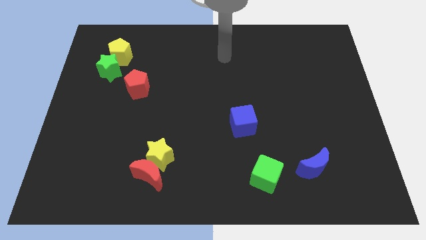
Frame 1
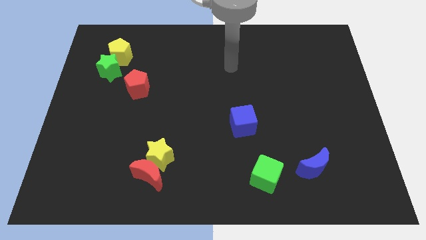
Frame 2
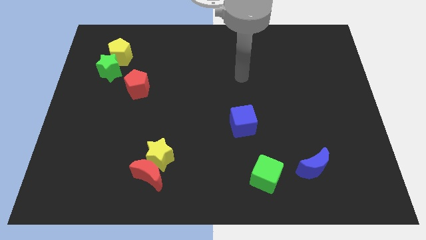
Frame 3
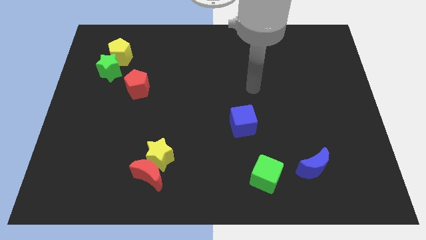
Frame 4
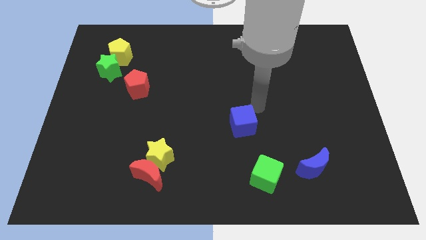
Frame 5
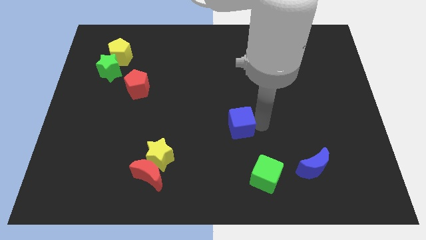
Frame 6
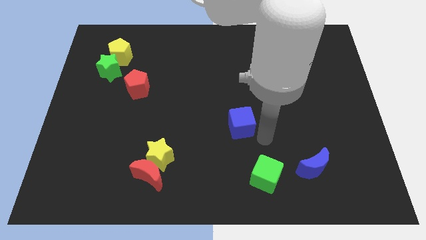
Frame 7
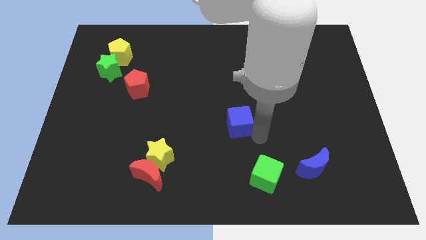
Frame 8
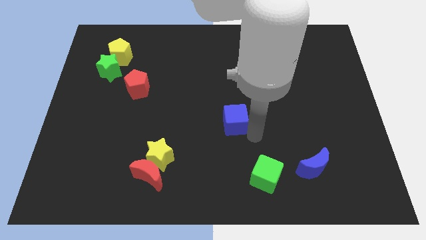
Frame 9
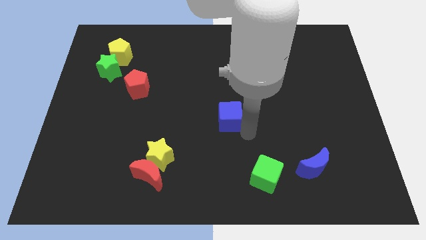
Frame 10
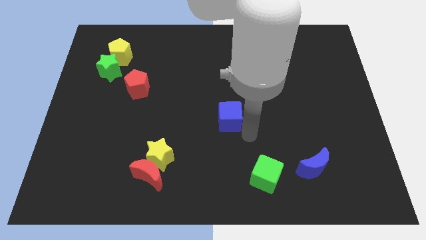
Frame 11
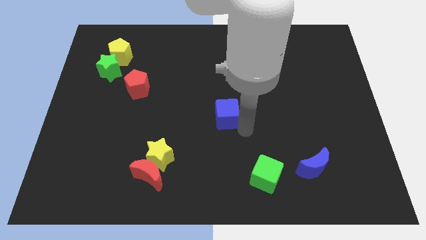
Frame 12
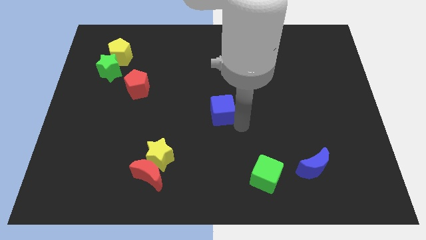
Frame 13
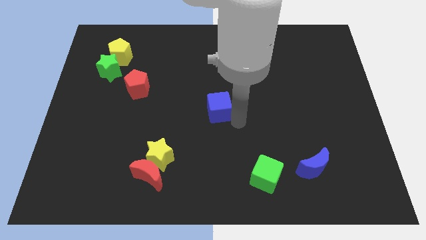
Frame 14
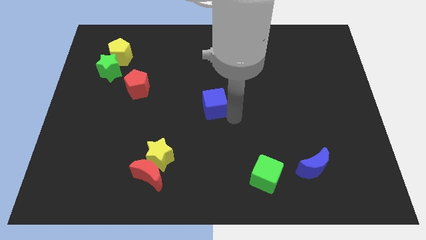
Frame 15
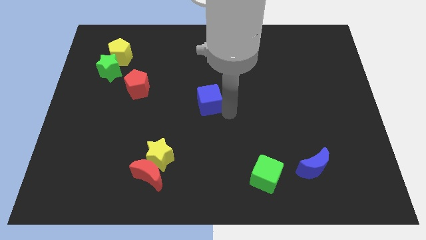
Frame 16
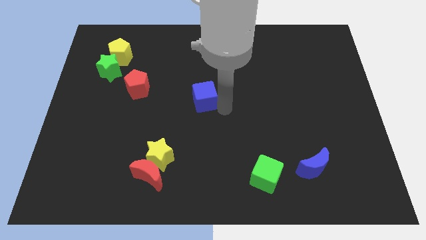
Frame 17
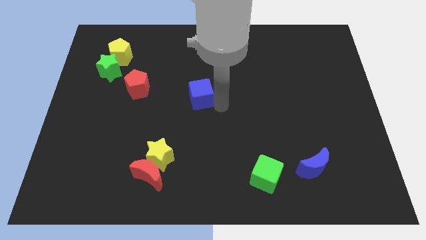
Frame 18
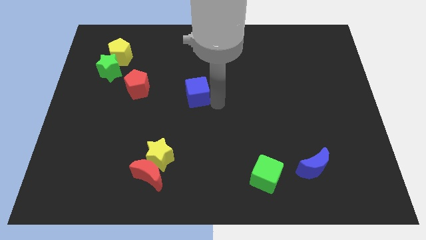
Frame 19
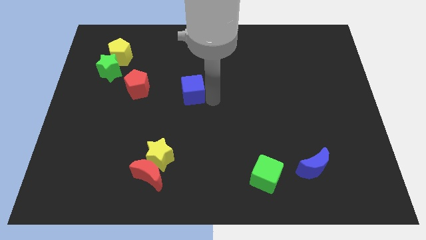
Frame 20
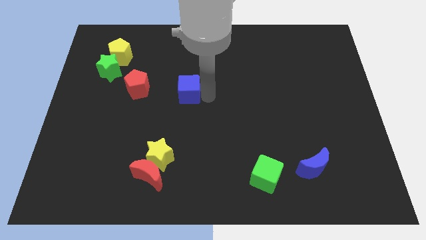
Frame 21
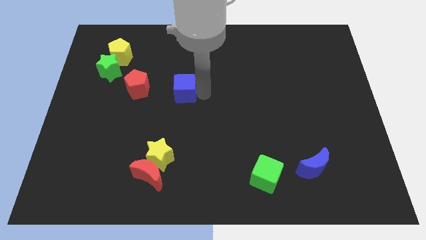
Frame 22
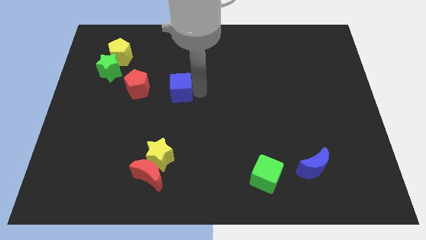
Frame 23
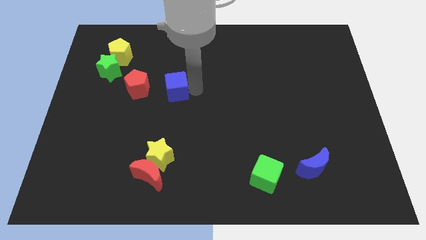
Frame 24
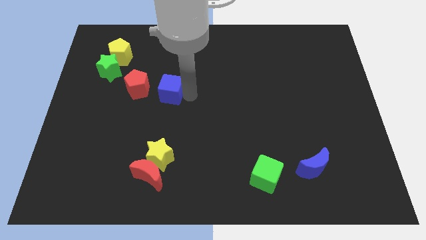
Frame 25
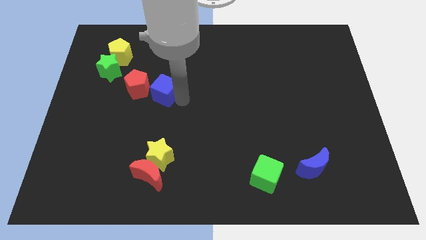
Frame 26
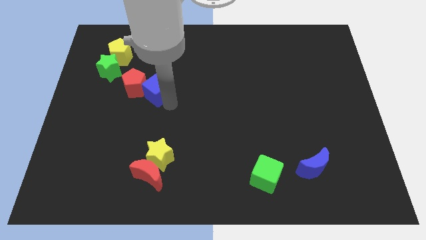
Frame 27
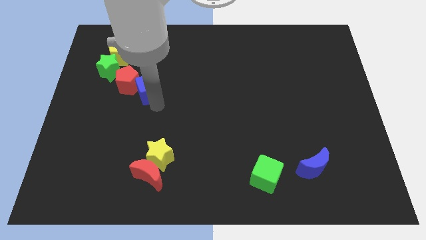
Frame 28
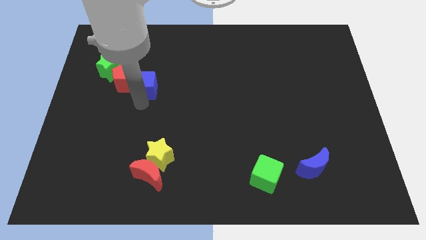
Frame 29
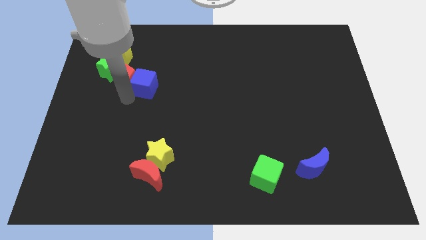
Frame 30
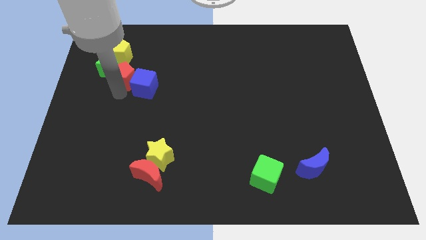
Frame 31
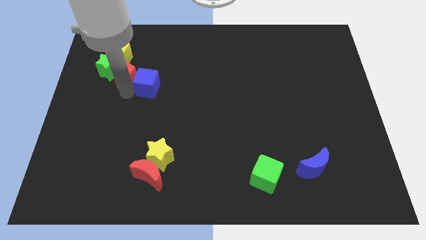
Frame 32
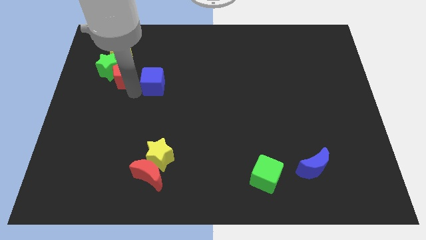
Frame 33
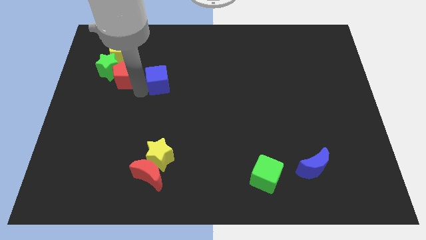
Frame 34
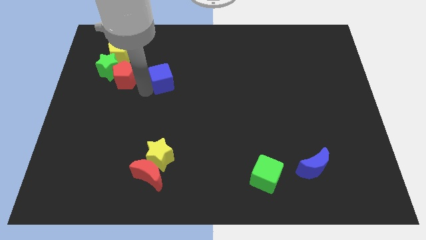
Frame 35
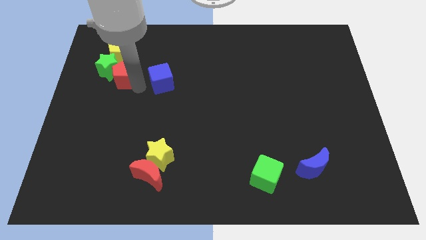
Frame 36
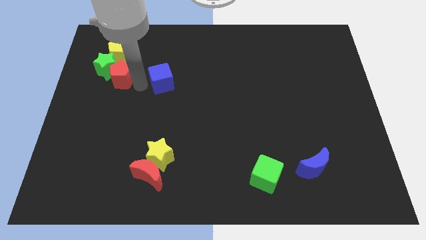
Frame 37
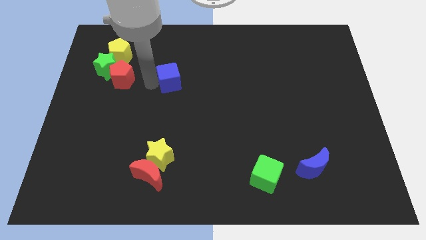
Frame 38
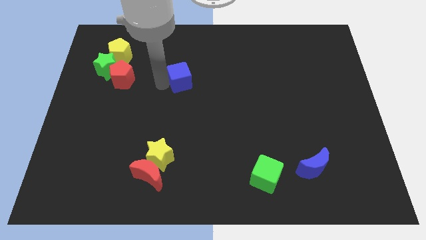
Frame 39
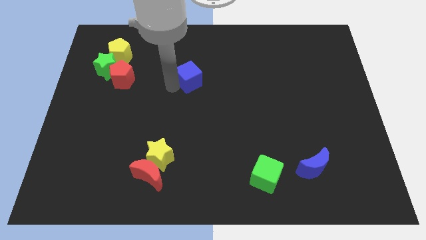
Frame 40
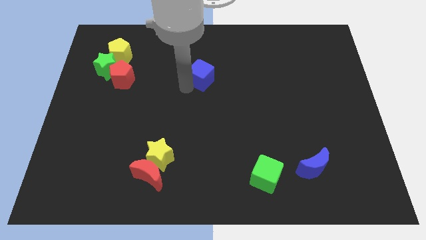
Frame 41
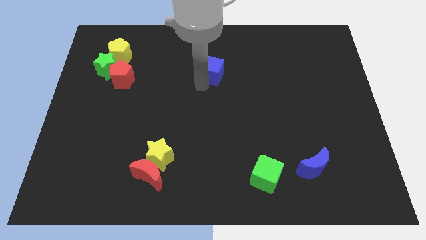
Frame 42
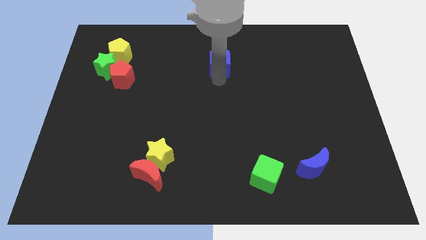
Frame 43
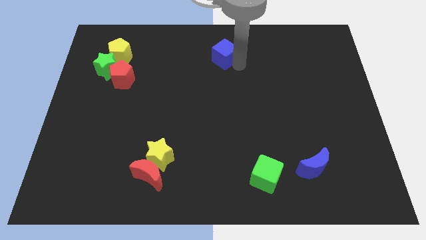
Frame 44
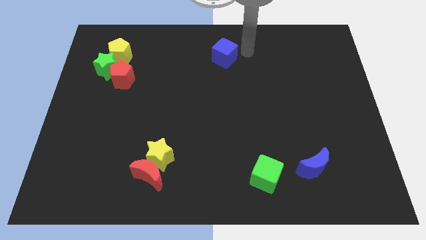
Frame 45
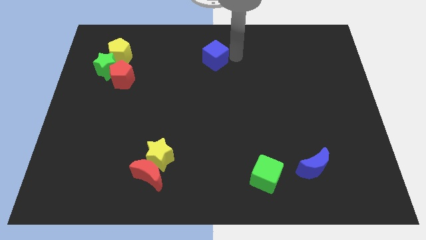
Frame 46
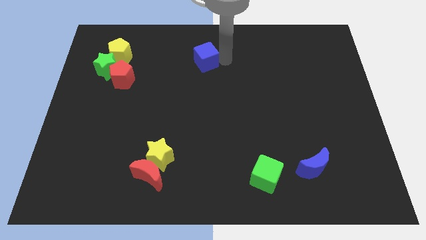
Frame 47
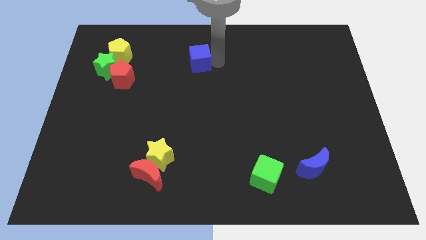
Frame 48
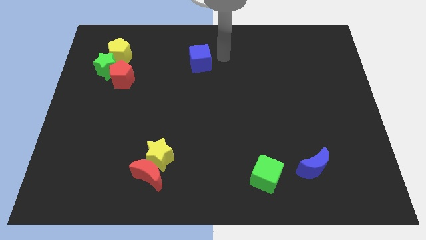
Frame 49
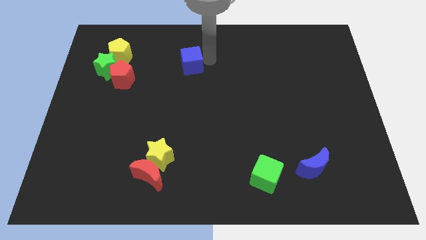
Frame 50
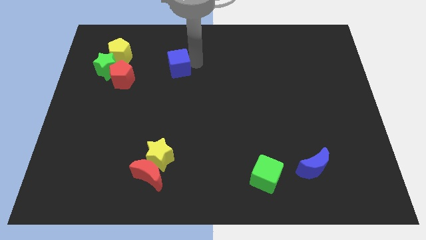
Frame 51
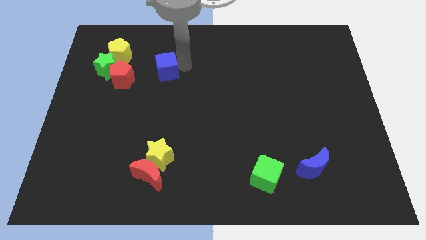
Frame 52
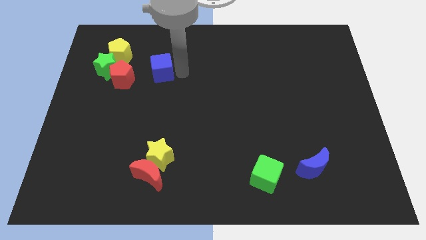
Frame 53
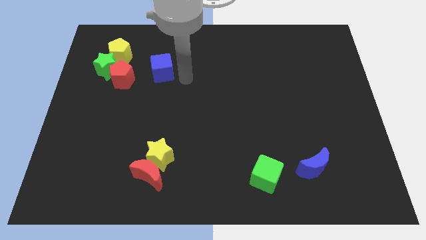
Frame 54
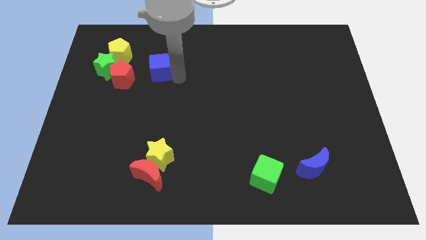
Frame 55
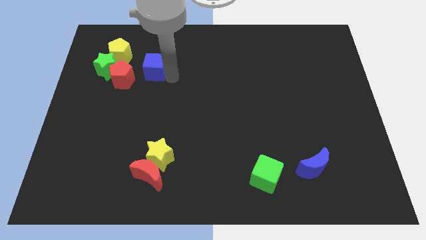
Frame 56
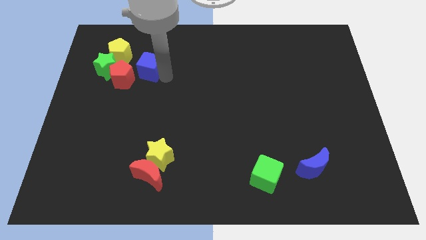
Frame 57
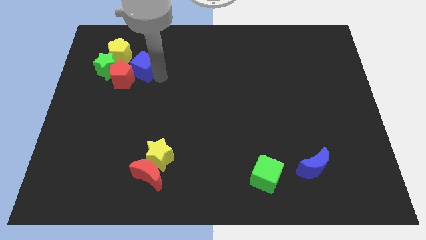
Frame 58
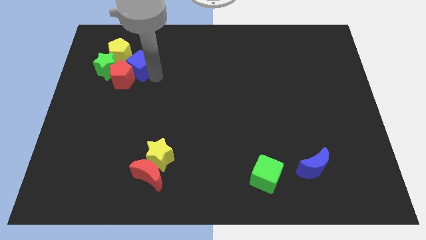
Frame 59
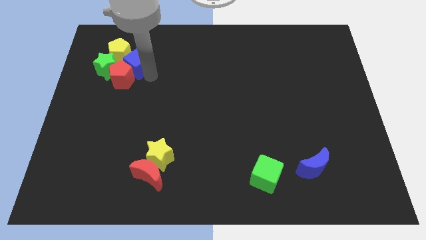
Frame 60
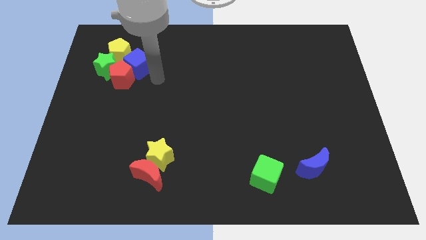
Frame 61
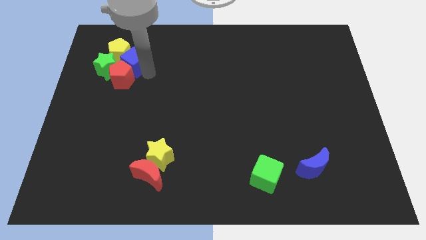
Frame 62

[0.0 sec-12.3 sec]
push the blue cube close to the yellow pentagon

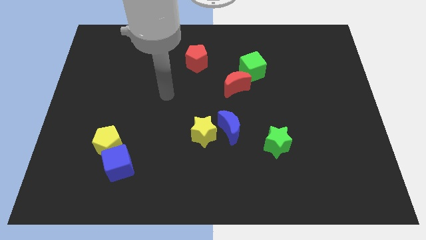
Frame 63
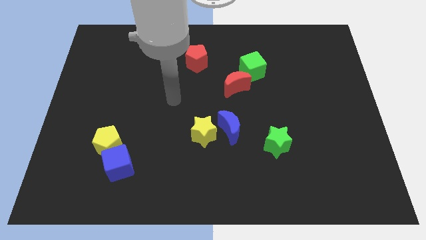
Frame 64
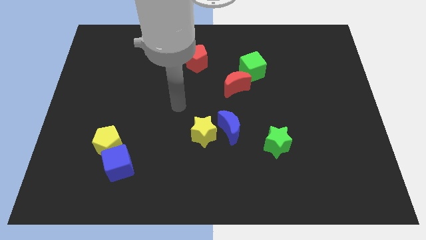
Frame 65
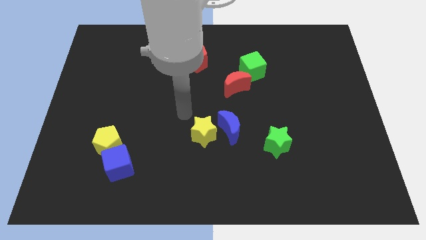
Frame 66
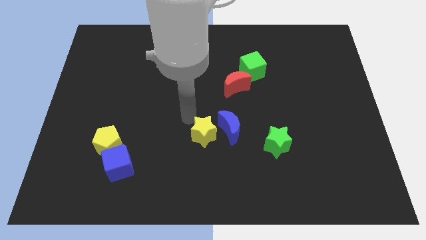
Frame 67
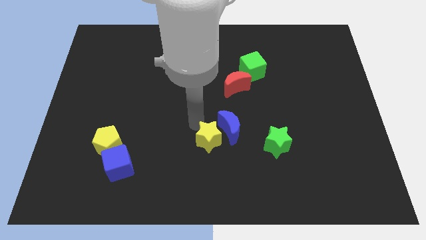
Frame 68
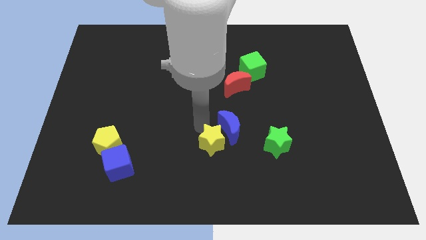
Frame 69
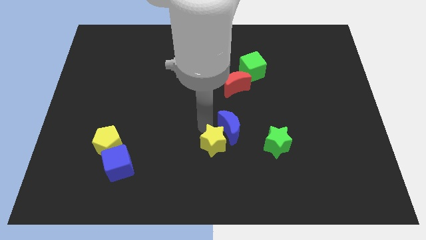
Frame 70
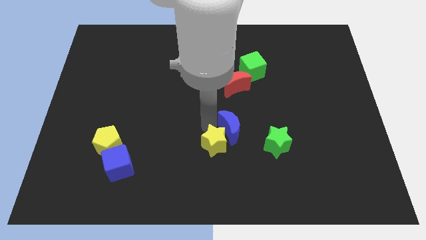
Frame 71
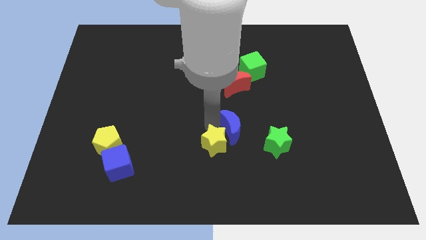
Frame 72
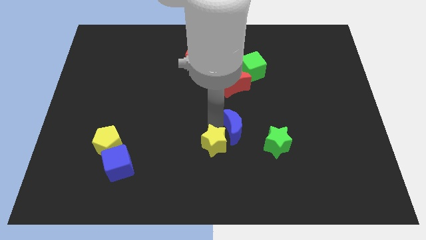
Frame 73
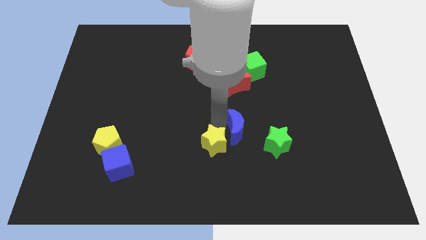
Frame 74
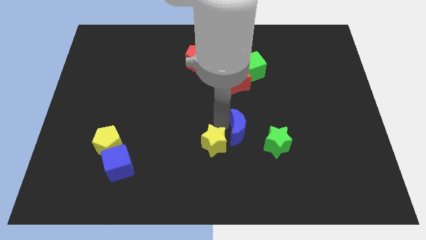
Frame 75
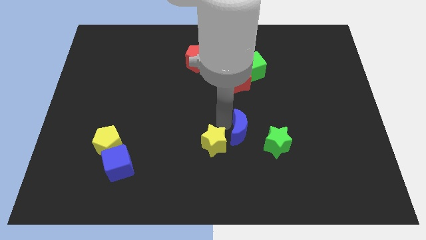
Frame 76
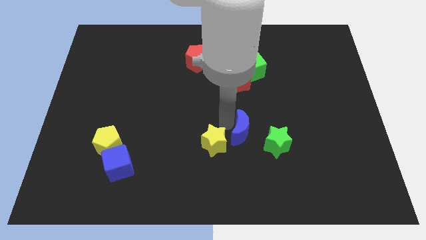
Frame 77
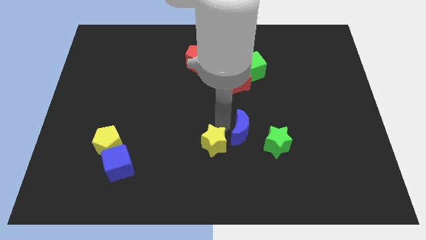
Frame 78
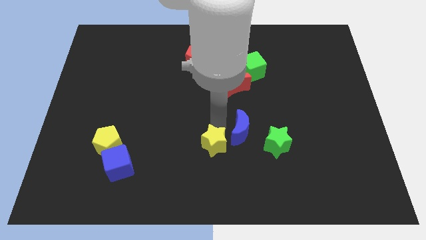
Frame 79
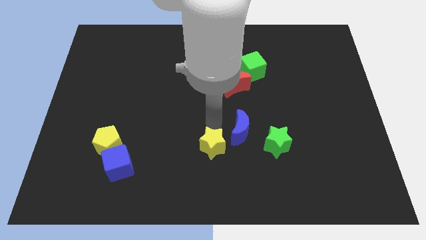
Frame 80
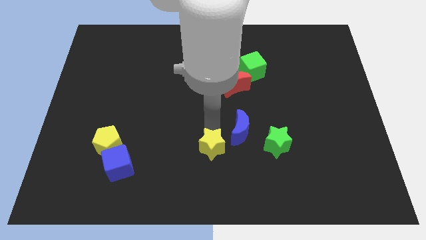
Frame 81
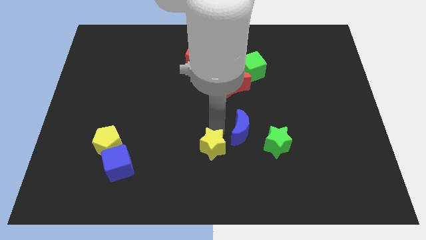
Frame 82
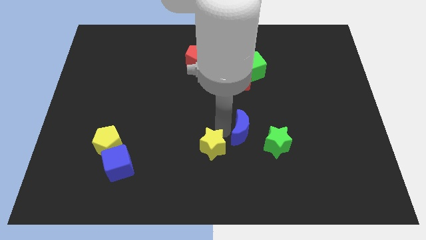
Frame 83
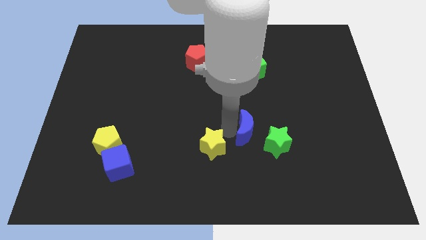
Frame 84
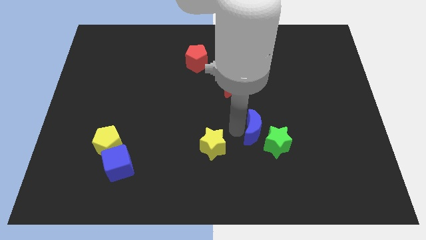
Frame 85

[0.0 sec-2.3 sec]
push the blue moon close to the green star

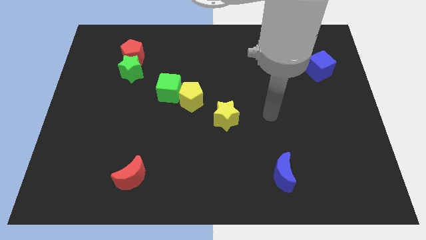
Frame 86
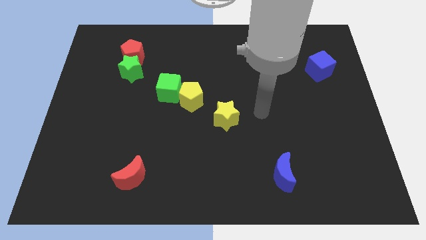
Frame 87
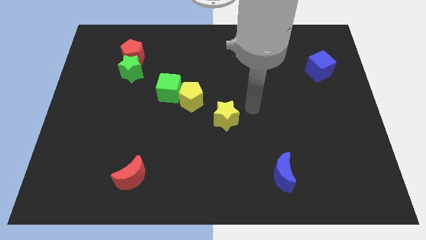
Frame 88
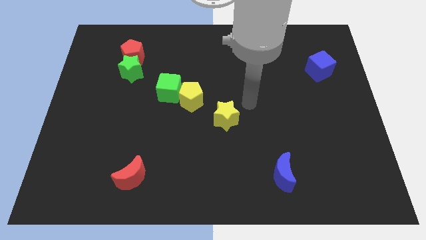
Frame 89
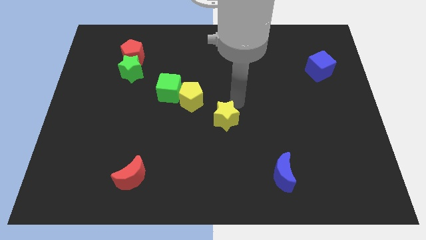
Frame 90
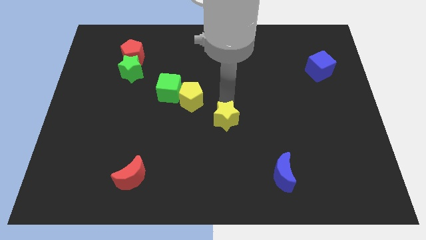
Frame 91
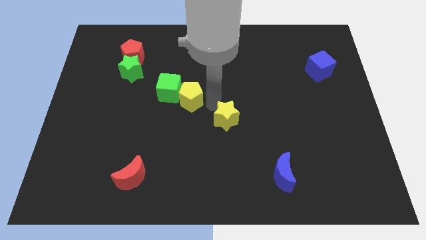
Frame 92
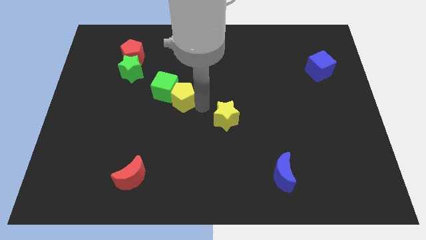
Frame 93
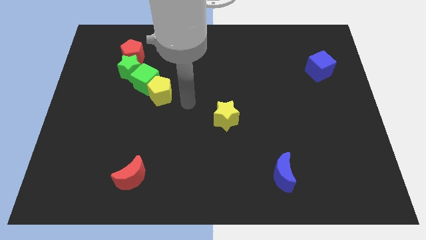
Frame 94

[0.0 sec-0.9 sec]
put the green cube towards the green star
